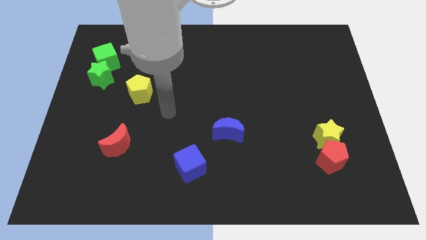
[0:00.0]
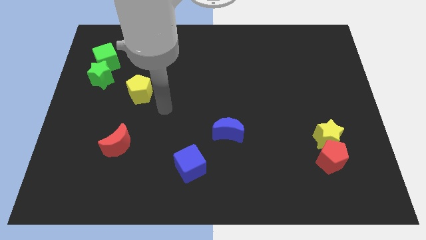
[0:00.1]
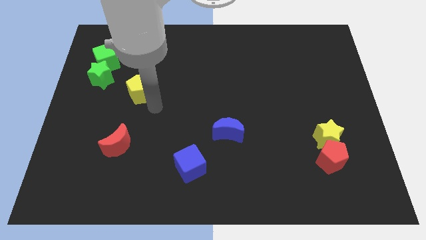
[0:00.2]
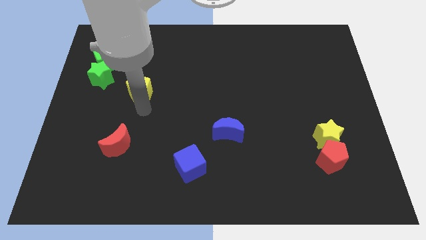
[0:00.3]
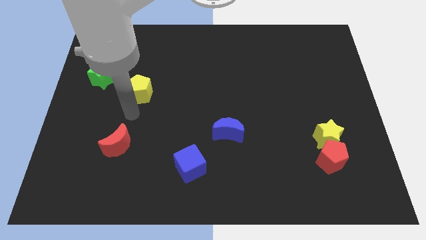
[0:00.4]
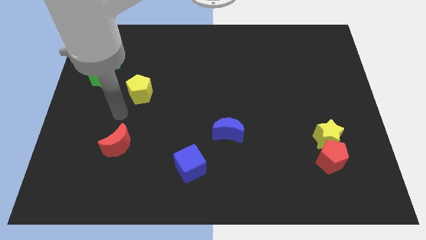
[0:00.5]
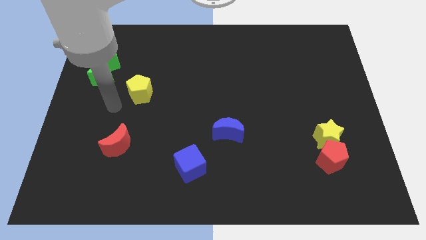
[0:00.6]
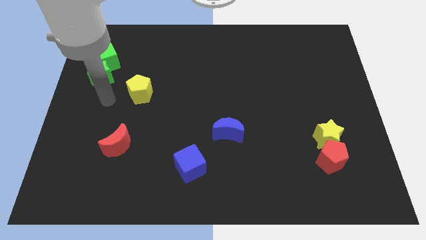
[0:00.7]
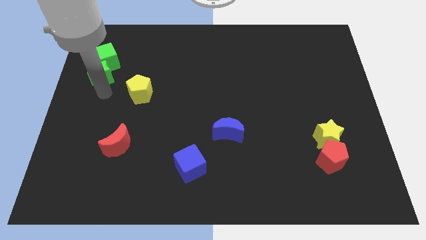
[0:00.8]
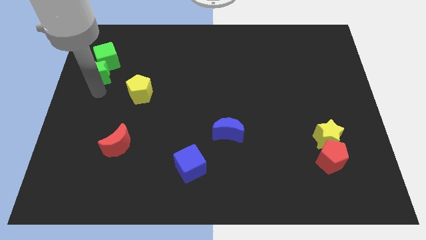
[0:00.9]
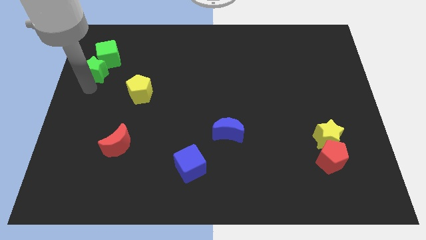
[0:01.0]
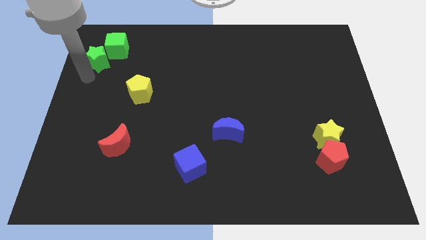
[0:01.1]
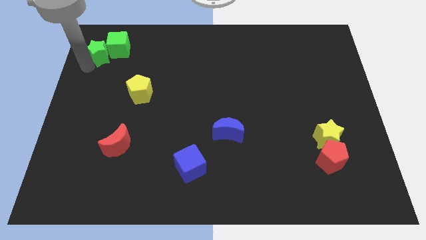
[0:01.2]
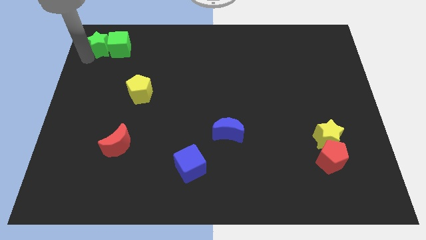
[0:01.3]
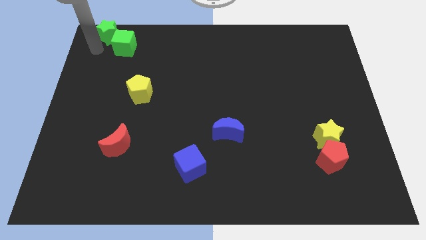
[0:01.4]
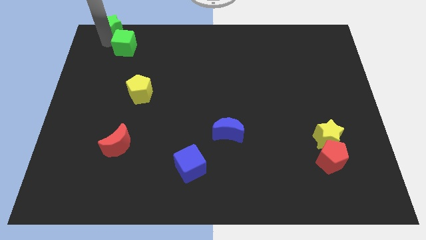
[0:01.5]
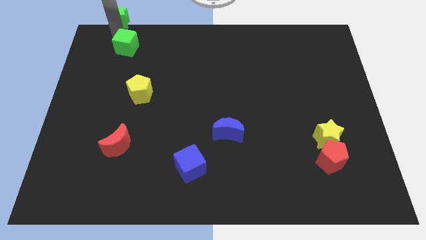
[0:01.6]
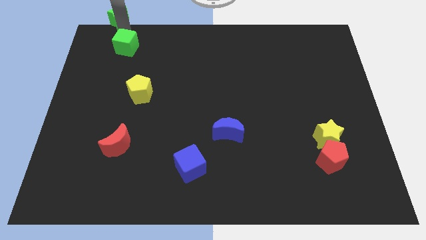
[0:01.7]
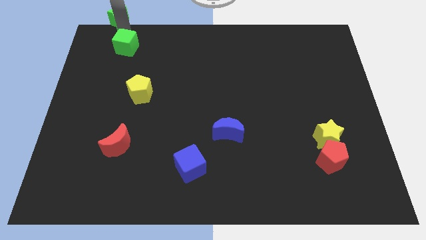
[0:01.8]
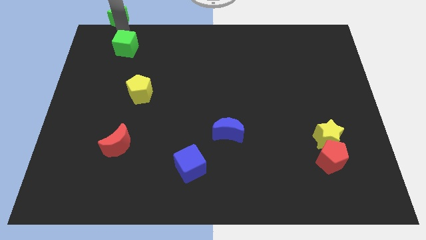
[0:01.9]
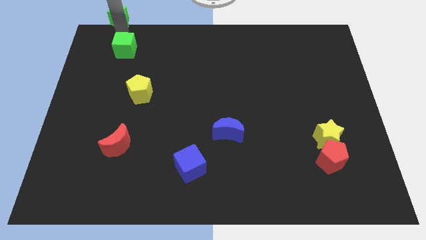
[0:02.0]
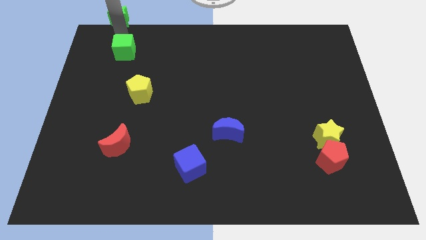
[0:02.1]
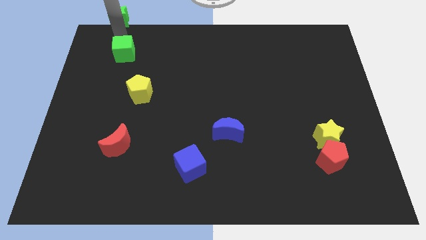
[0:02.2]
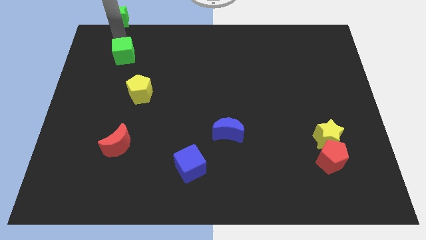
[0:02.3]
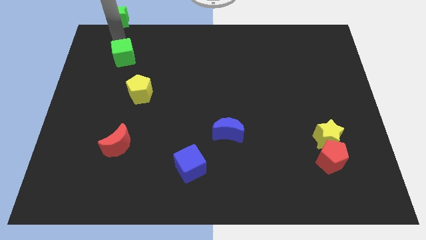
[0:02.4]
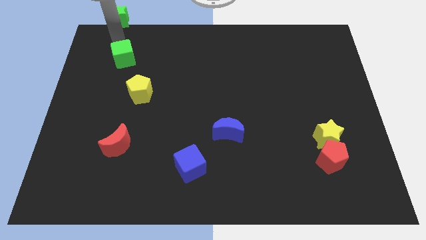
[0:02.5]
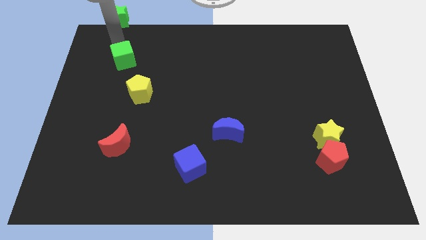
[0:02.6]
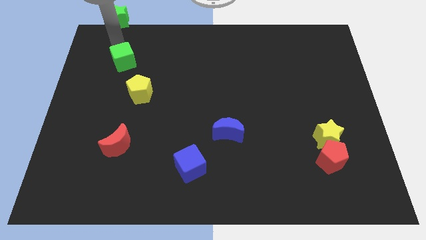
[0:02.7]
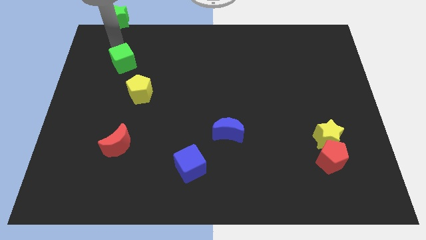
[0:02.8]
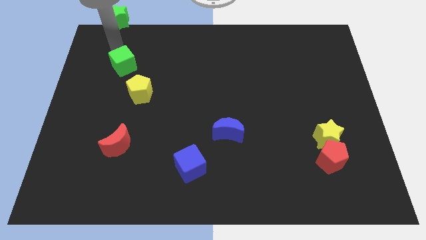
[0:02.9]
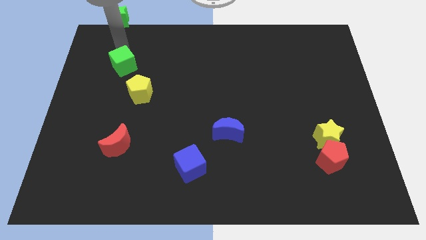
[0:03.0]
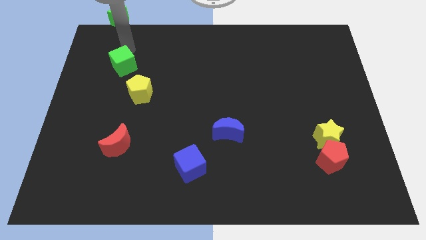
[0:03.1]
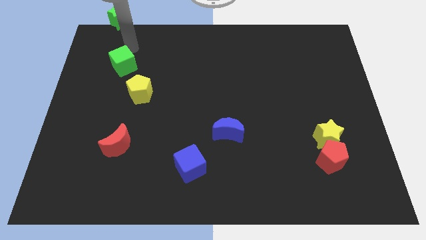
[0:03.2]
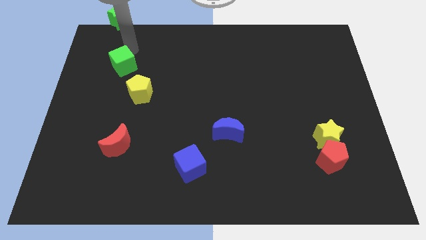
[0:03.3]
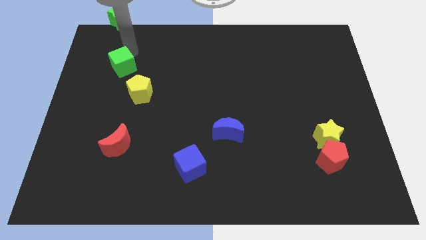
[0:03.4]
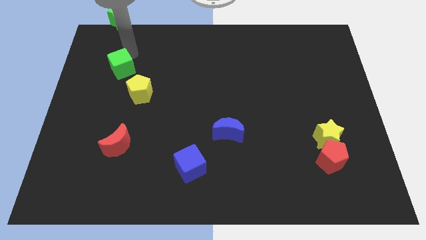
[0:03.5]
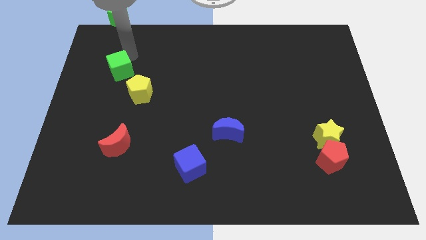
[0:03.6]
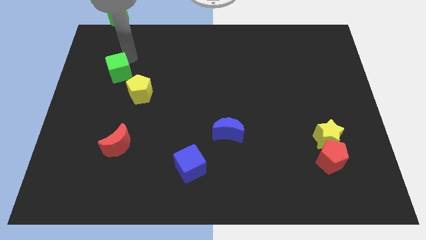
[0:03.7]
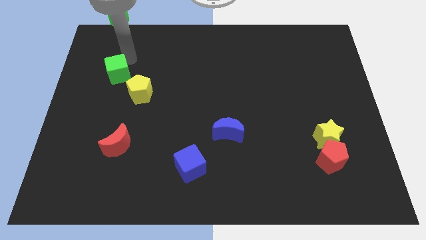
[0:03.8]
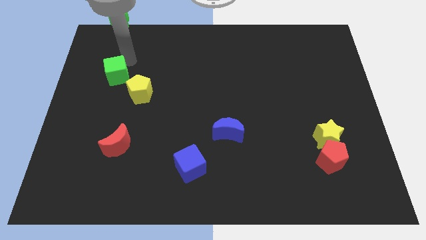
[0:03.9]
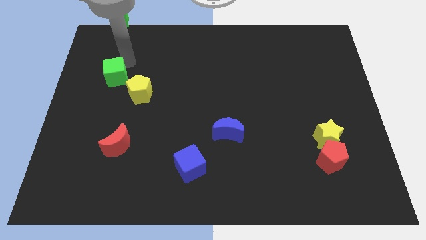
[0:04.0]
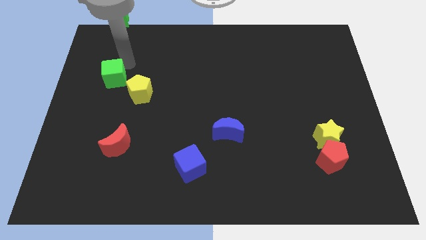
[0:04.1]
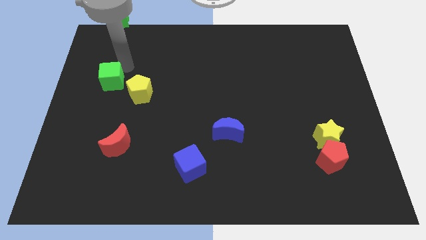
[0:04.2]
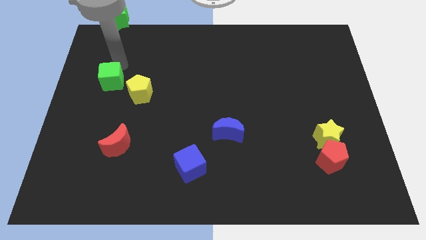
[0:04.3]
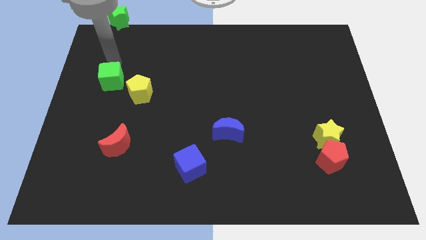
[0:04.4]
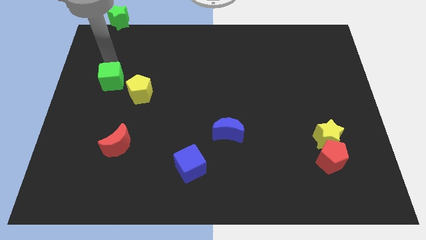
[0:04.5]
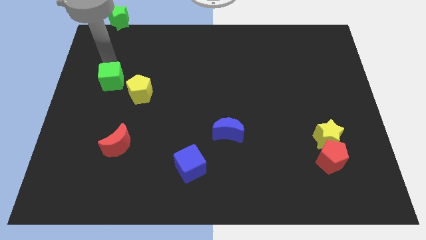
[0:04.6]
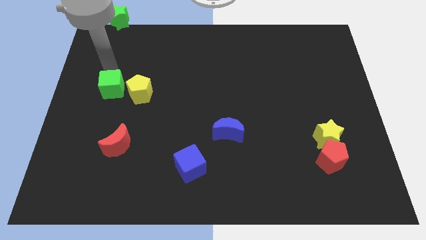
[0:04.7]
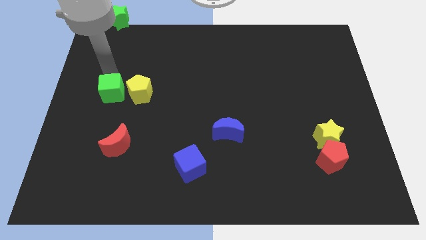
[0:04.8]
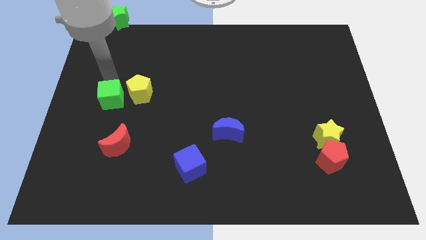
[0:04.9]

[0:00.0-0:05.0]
push the green cube to the bottom left of the yellow pentagon

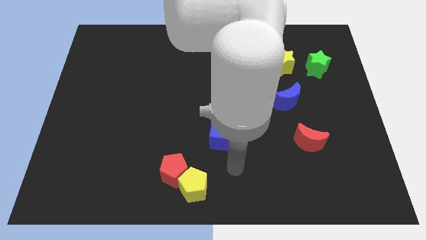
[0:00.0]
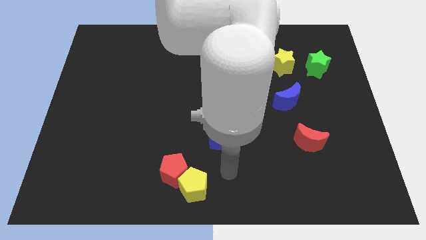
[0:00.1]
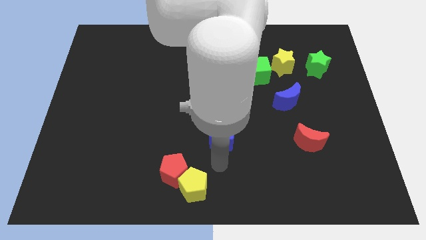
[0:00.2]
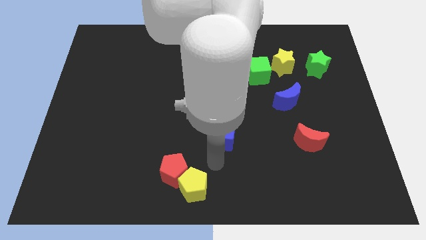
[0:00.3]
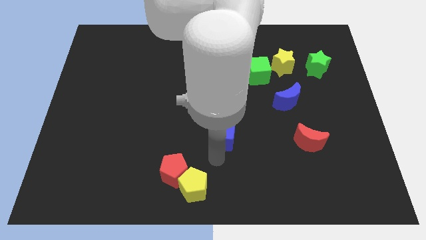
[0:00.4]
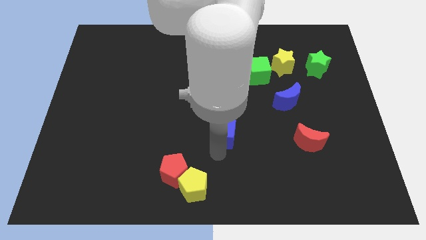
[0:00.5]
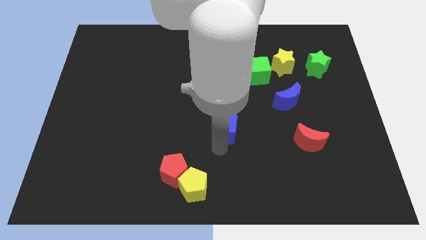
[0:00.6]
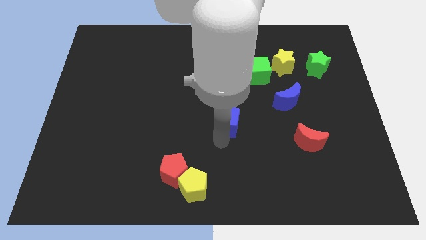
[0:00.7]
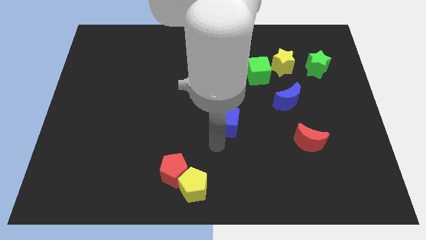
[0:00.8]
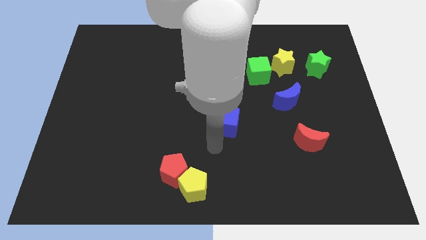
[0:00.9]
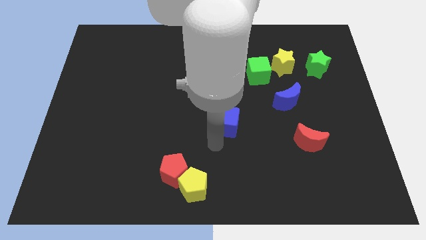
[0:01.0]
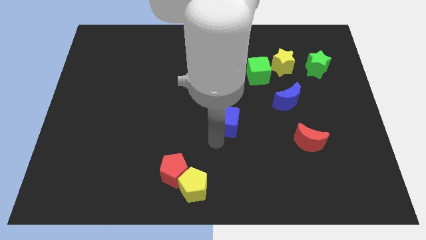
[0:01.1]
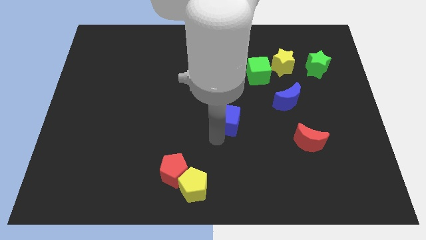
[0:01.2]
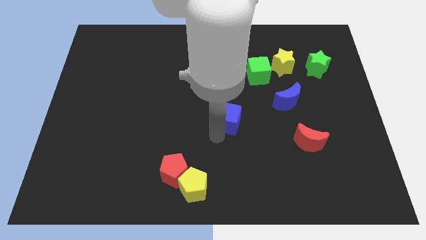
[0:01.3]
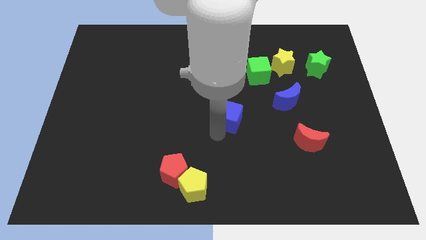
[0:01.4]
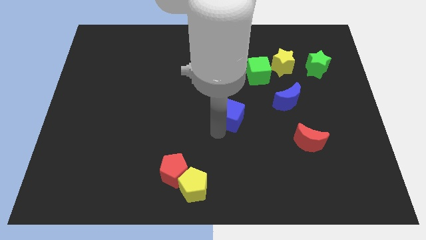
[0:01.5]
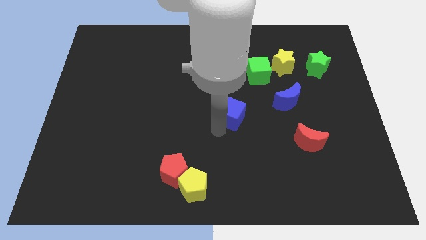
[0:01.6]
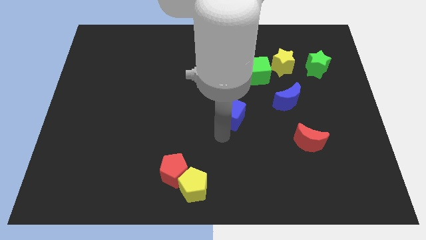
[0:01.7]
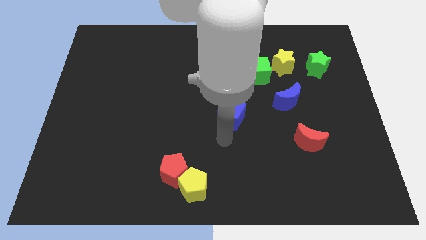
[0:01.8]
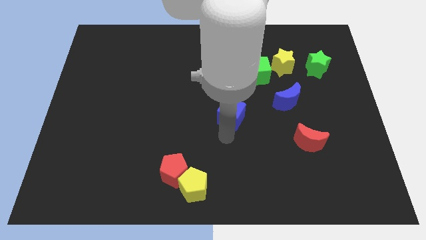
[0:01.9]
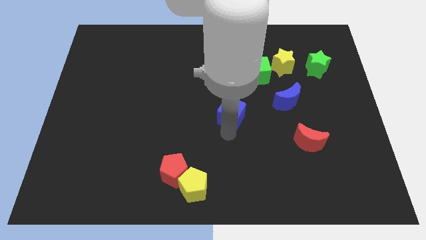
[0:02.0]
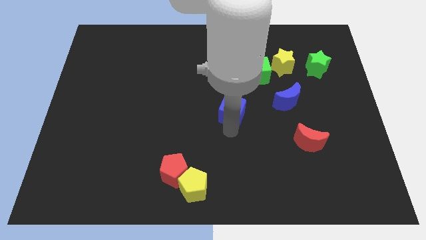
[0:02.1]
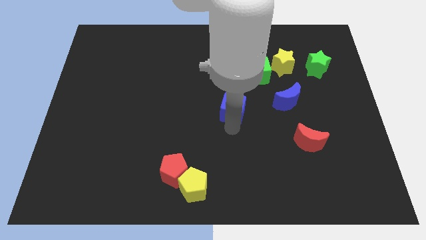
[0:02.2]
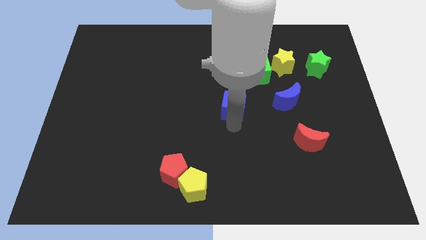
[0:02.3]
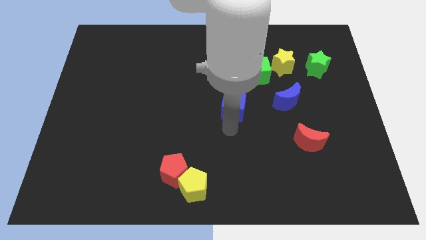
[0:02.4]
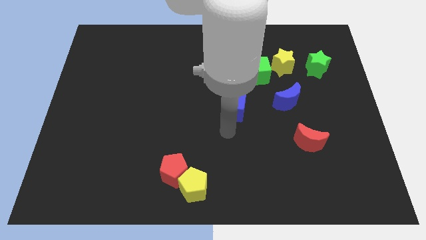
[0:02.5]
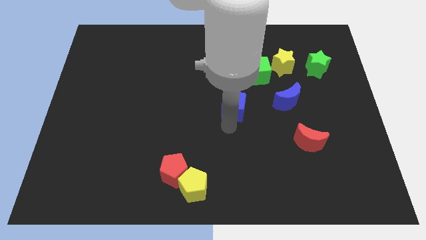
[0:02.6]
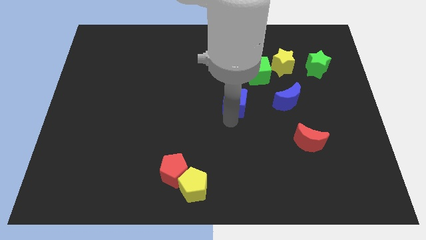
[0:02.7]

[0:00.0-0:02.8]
move the blue cube to the bottom left side of the green cube
